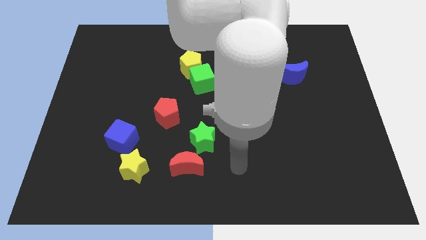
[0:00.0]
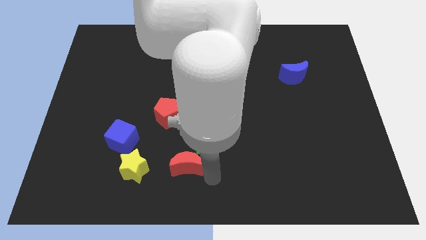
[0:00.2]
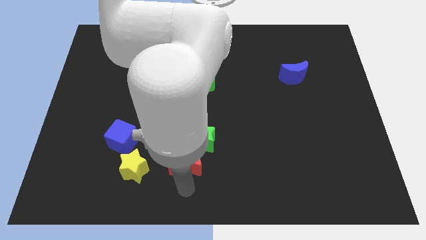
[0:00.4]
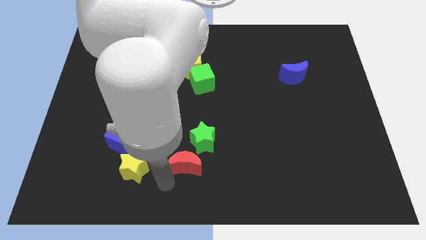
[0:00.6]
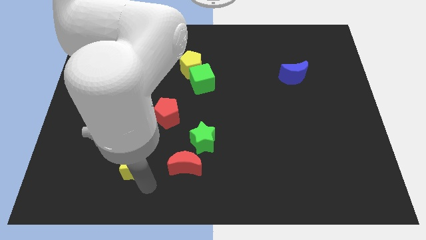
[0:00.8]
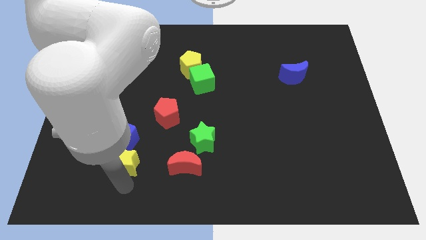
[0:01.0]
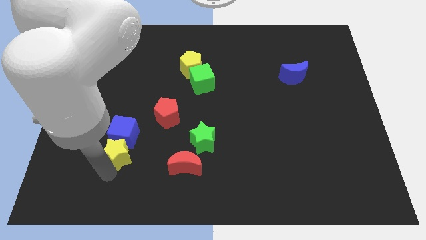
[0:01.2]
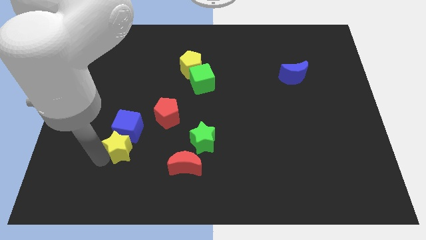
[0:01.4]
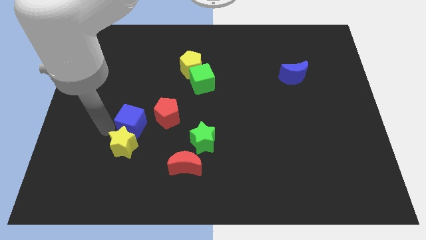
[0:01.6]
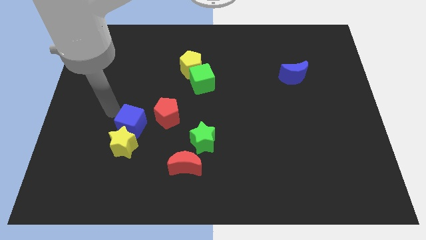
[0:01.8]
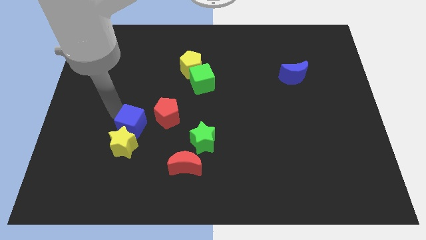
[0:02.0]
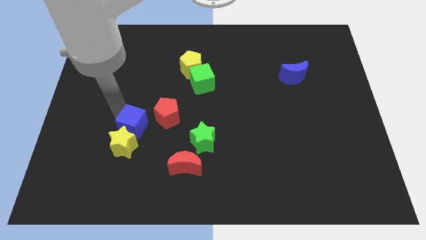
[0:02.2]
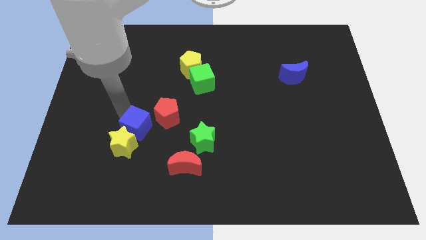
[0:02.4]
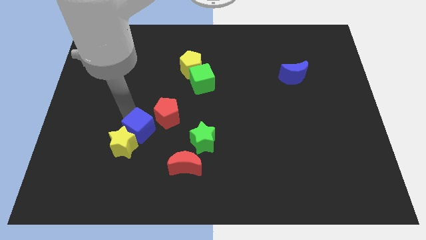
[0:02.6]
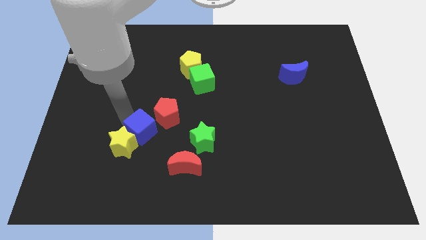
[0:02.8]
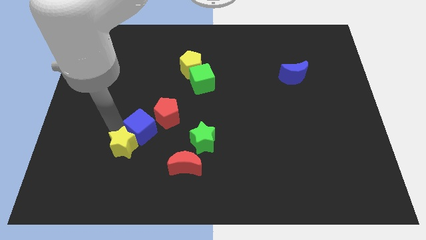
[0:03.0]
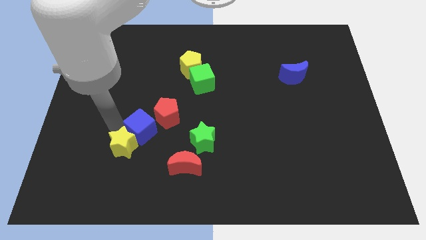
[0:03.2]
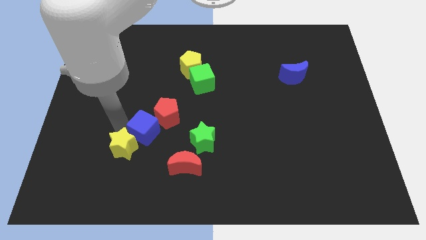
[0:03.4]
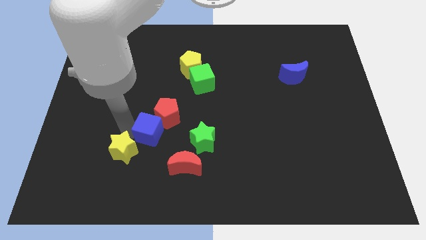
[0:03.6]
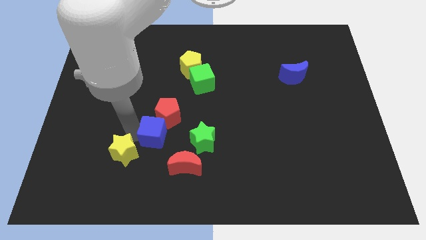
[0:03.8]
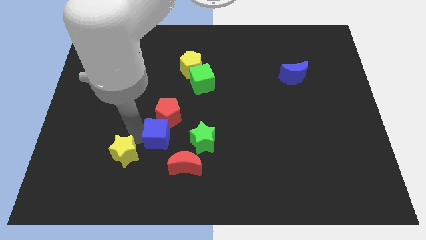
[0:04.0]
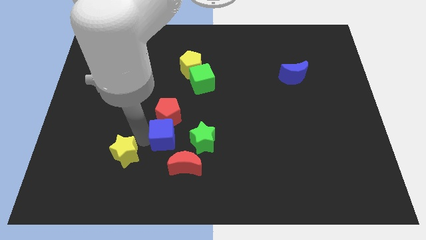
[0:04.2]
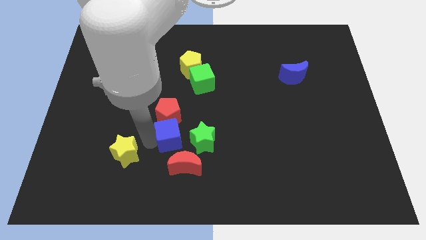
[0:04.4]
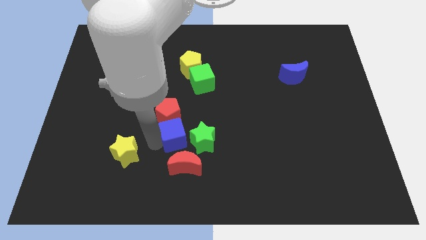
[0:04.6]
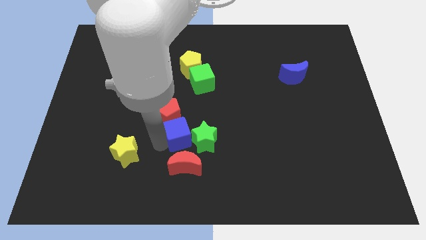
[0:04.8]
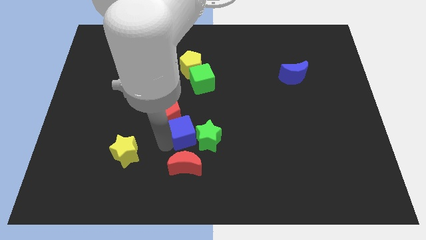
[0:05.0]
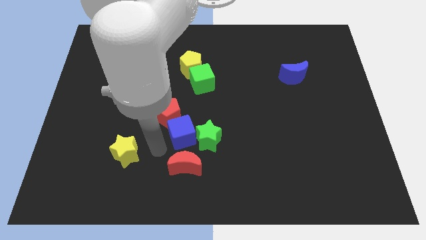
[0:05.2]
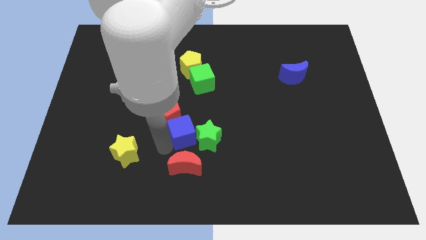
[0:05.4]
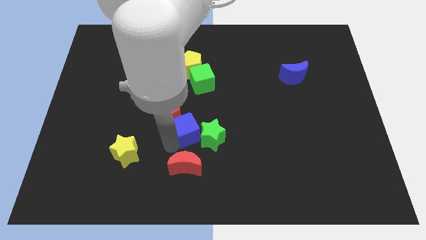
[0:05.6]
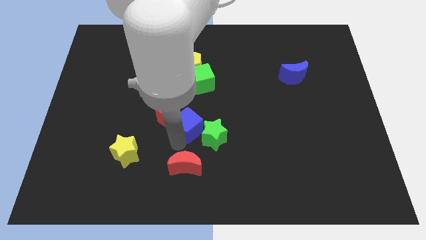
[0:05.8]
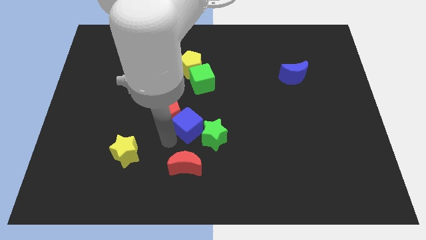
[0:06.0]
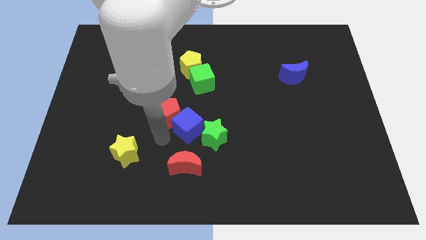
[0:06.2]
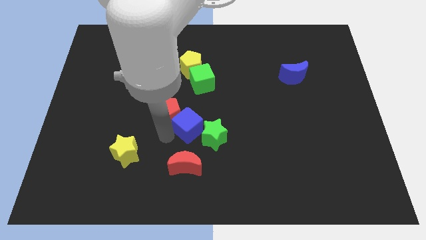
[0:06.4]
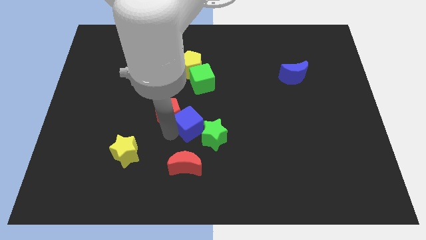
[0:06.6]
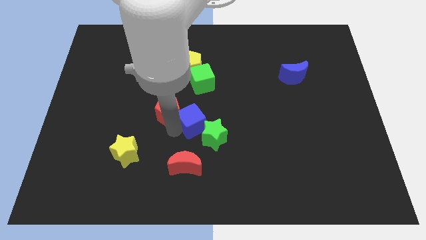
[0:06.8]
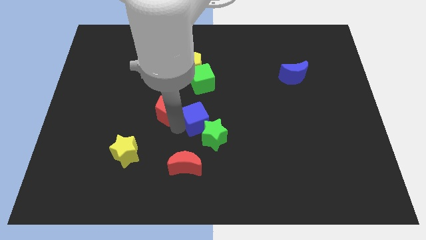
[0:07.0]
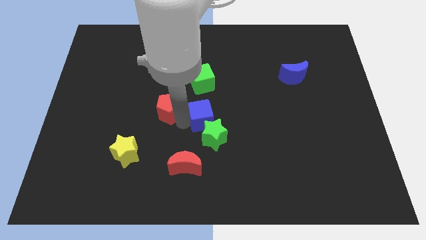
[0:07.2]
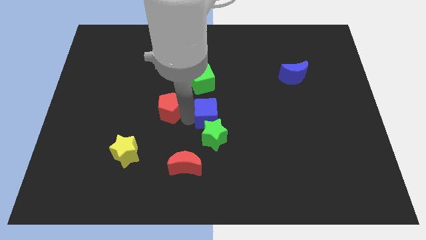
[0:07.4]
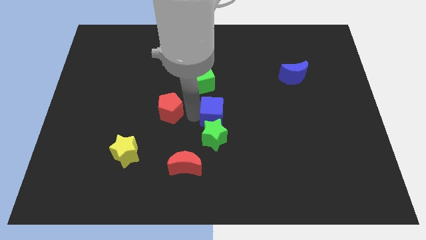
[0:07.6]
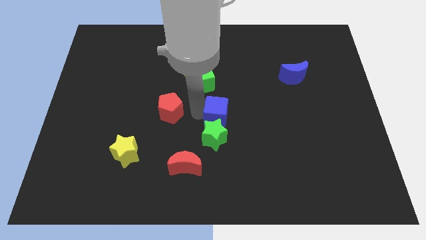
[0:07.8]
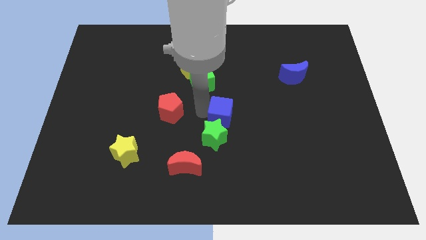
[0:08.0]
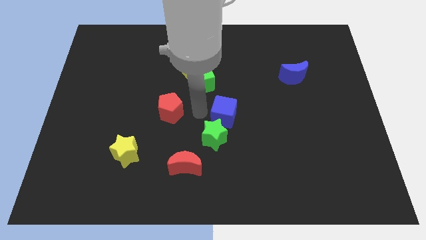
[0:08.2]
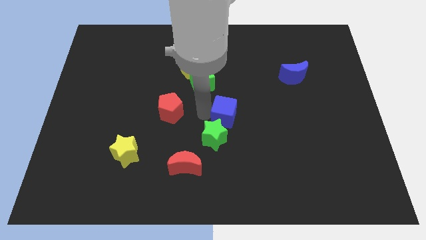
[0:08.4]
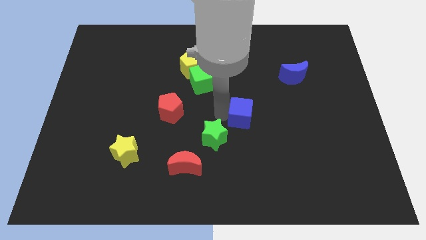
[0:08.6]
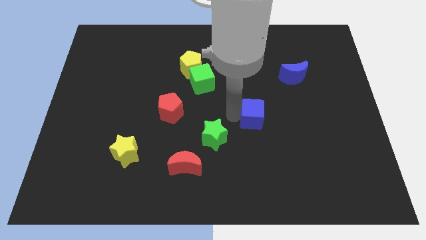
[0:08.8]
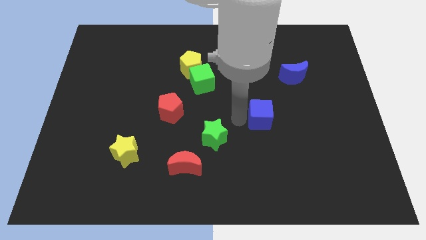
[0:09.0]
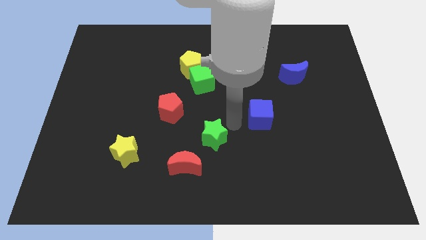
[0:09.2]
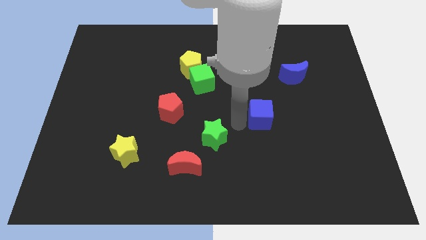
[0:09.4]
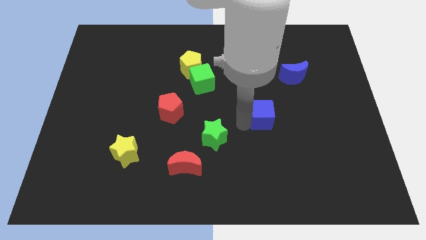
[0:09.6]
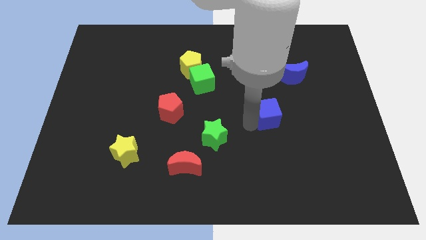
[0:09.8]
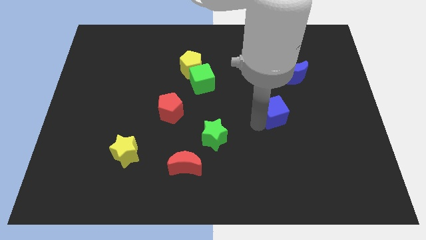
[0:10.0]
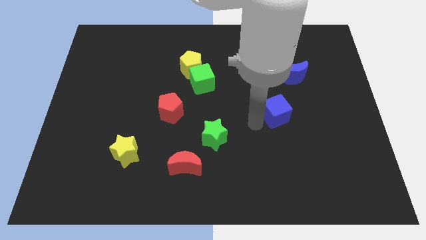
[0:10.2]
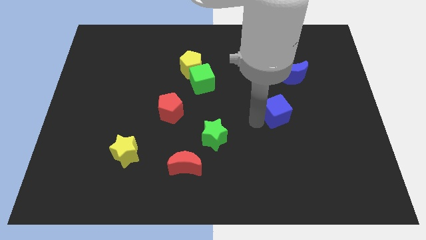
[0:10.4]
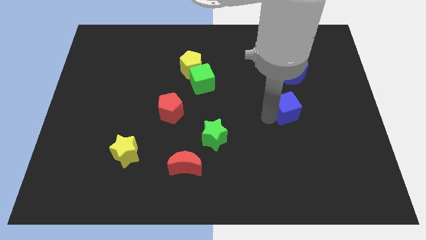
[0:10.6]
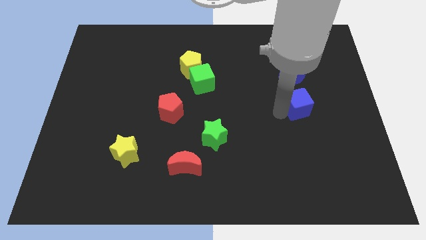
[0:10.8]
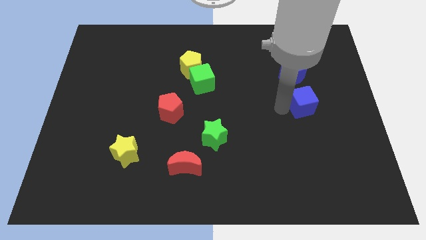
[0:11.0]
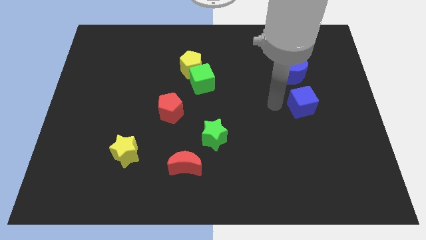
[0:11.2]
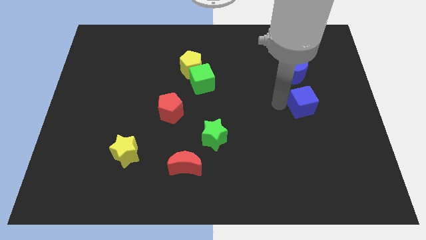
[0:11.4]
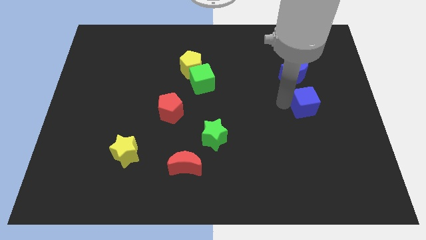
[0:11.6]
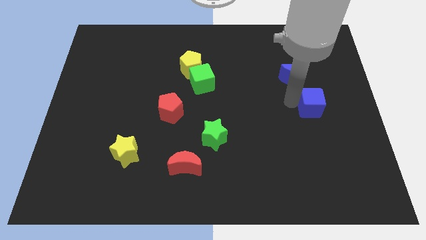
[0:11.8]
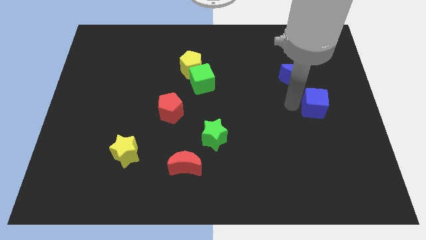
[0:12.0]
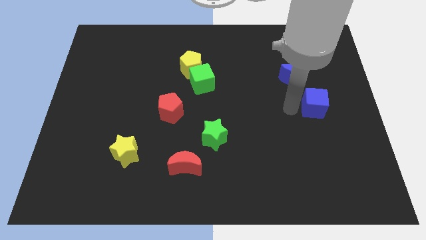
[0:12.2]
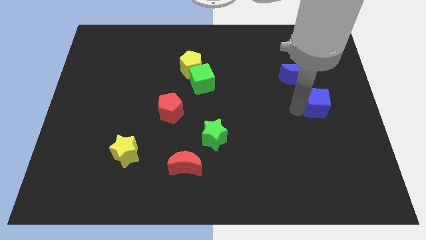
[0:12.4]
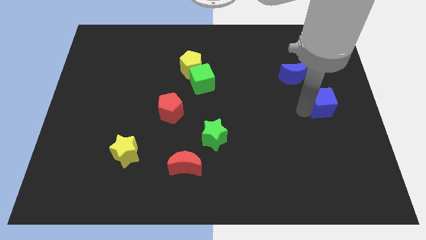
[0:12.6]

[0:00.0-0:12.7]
push the blue cube to the right side of the board

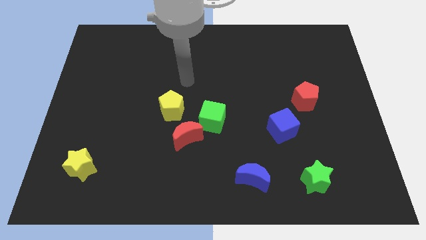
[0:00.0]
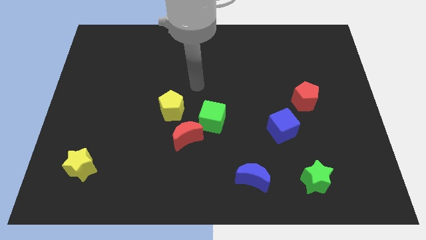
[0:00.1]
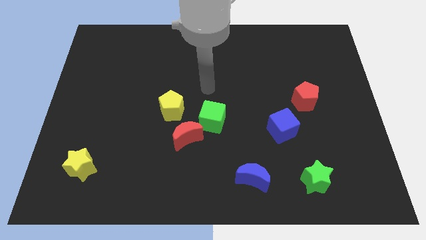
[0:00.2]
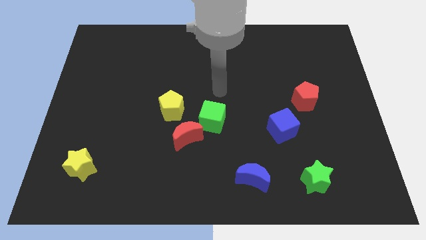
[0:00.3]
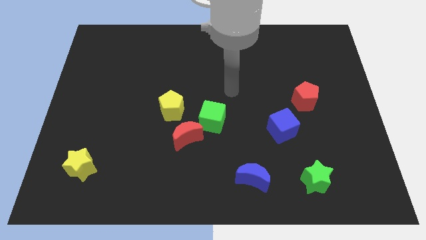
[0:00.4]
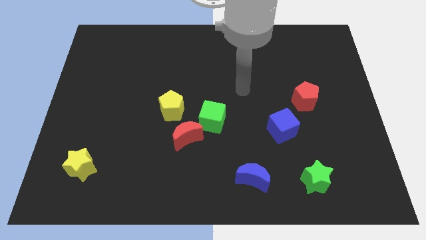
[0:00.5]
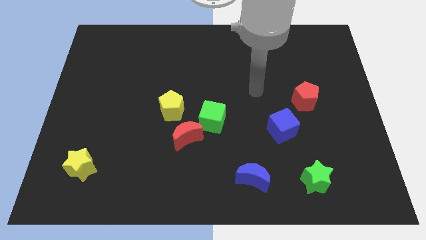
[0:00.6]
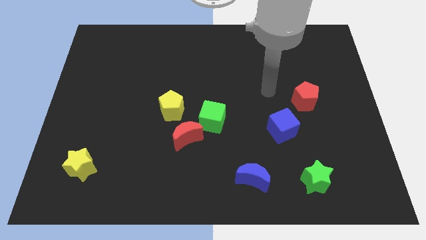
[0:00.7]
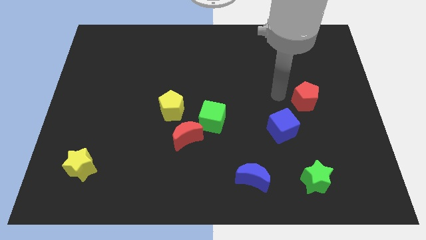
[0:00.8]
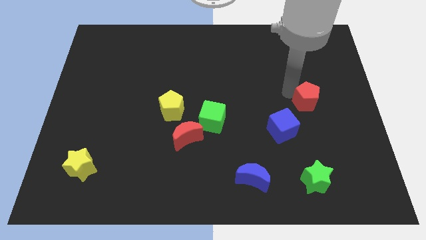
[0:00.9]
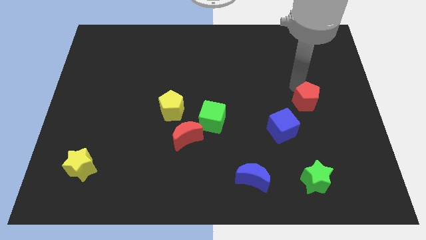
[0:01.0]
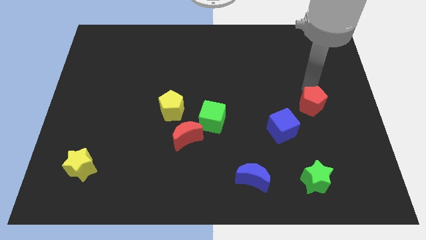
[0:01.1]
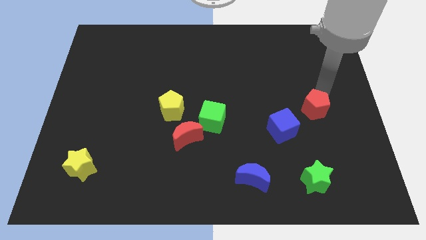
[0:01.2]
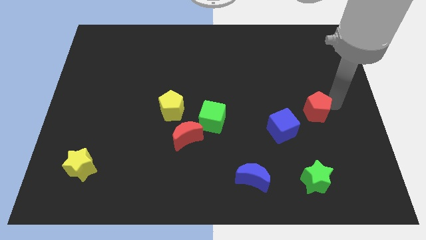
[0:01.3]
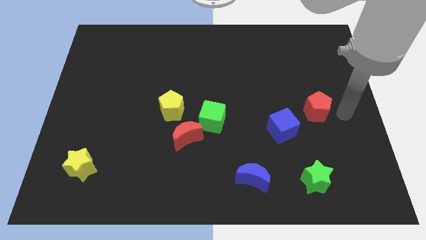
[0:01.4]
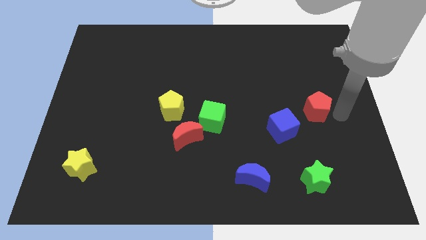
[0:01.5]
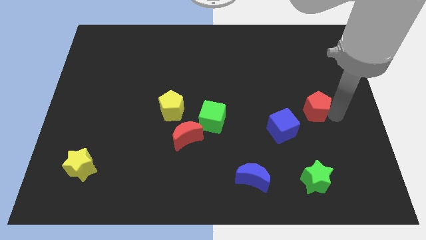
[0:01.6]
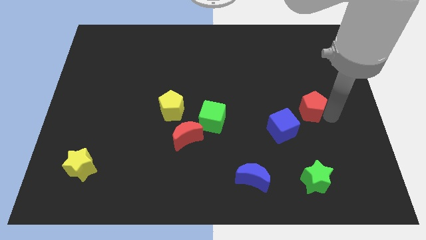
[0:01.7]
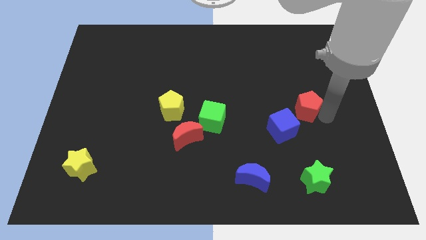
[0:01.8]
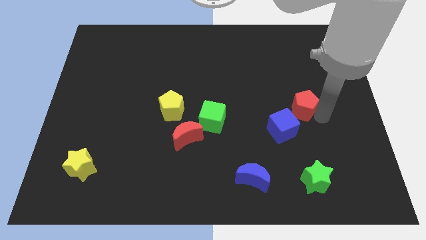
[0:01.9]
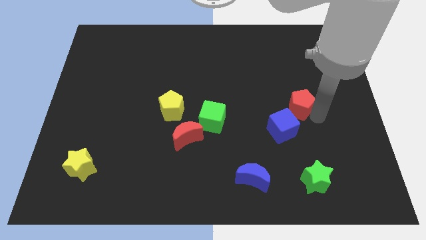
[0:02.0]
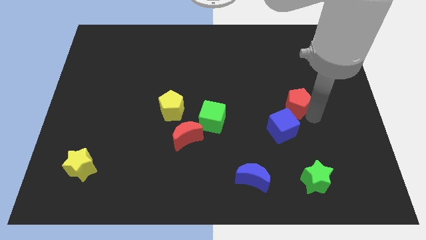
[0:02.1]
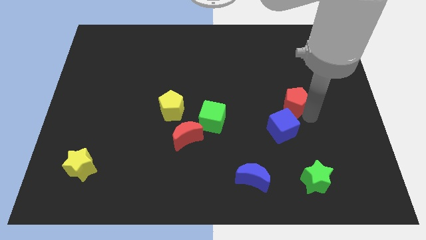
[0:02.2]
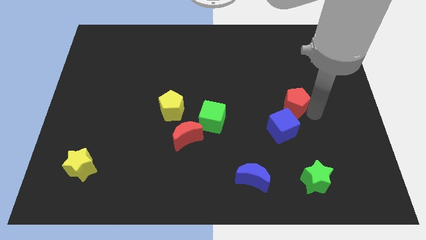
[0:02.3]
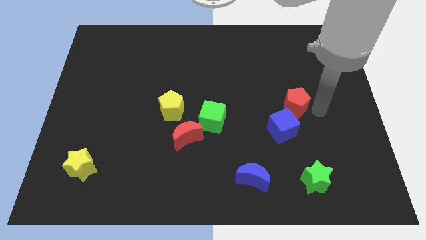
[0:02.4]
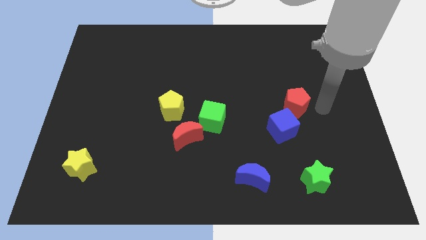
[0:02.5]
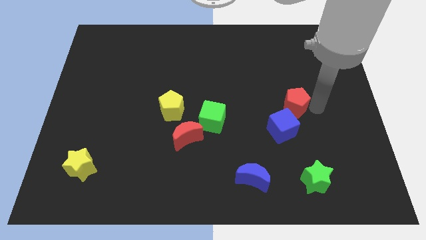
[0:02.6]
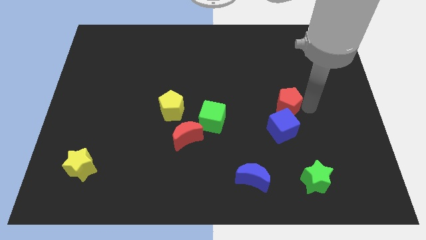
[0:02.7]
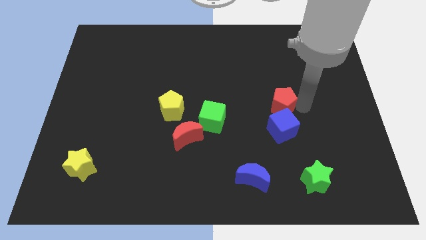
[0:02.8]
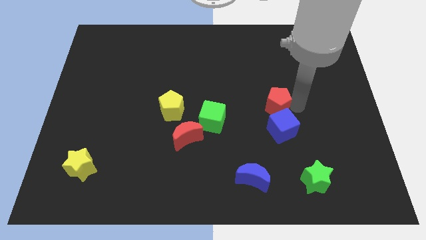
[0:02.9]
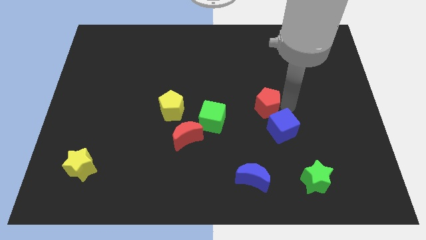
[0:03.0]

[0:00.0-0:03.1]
push the red pentagon to the center of the board
